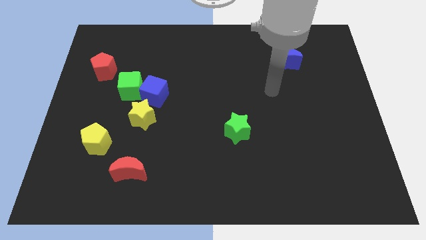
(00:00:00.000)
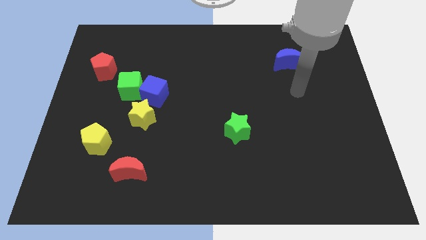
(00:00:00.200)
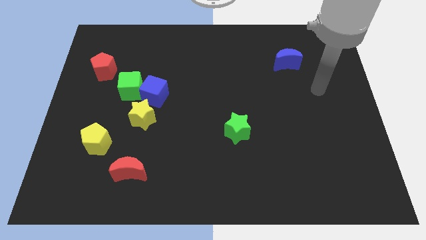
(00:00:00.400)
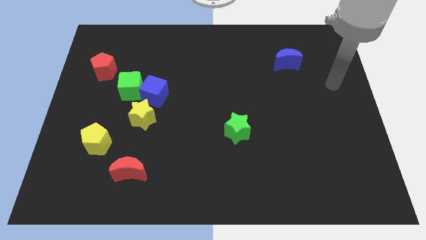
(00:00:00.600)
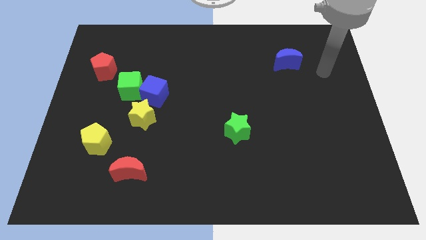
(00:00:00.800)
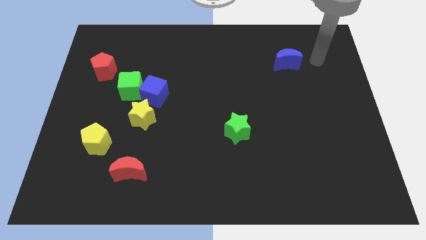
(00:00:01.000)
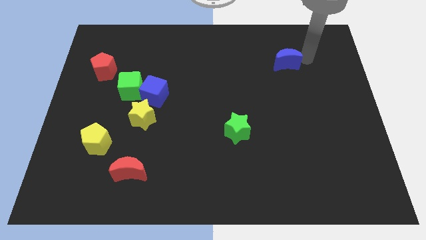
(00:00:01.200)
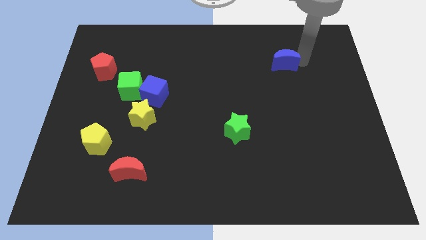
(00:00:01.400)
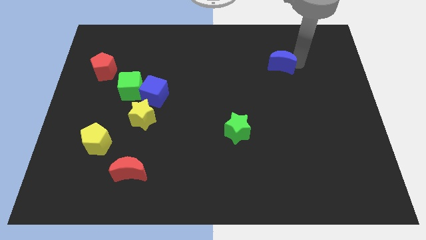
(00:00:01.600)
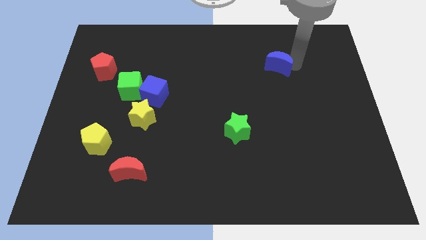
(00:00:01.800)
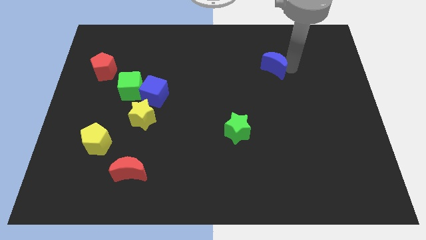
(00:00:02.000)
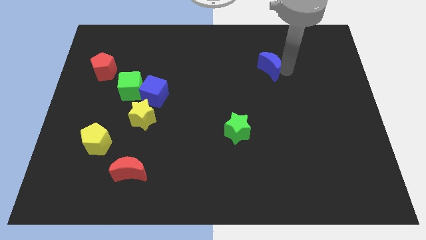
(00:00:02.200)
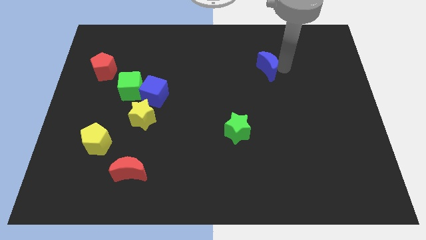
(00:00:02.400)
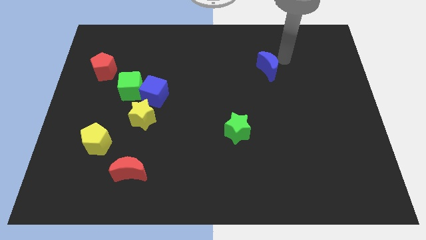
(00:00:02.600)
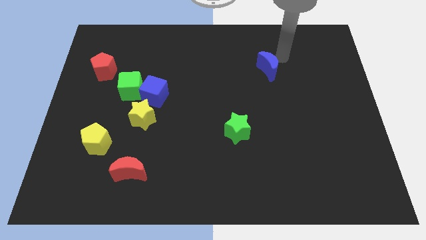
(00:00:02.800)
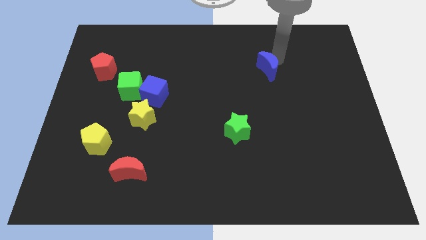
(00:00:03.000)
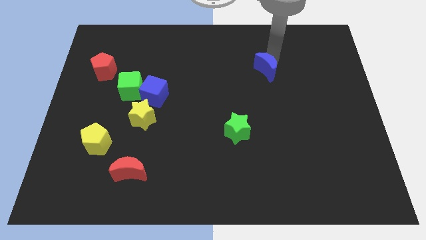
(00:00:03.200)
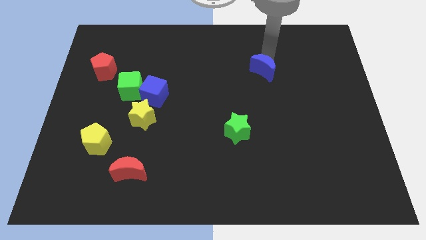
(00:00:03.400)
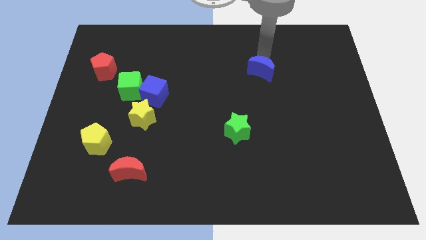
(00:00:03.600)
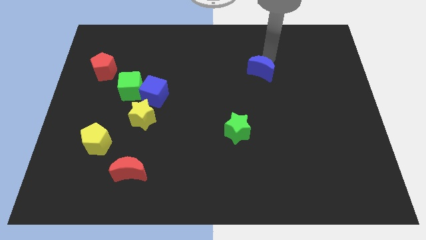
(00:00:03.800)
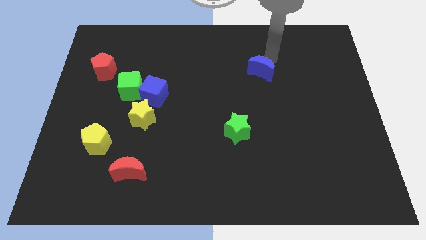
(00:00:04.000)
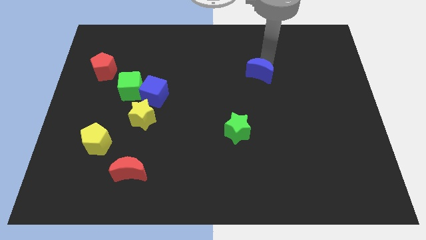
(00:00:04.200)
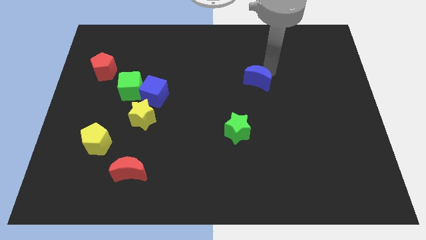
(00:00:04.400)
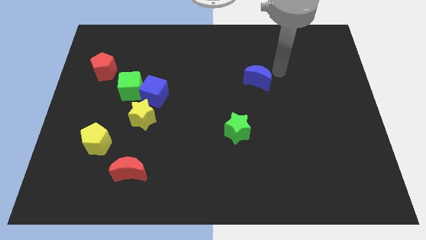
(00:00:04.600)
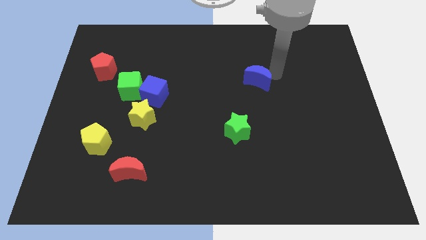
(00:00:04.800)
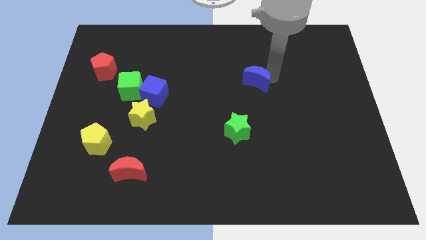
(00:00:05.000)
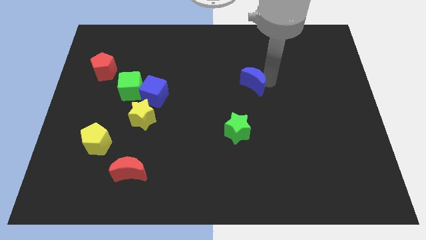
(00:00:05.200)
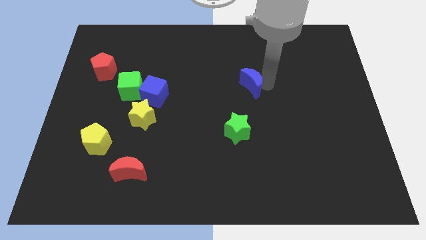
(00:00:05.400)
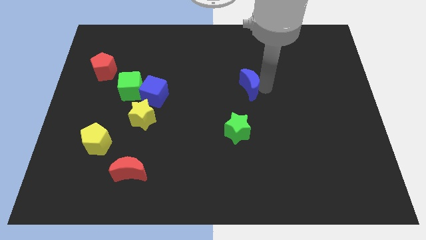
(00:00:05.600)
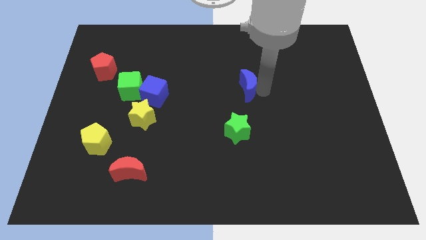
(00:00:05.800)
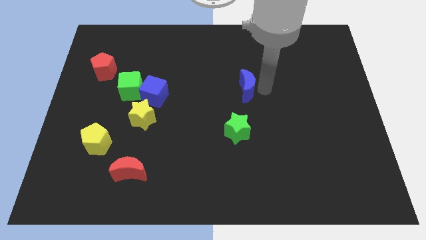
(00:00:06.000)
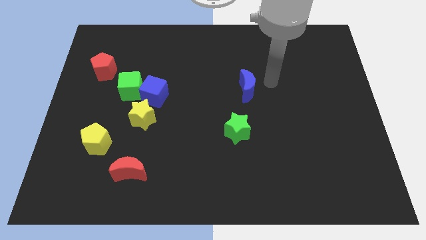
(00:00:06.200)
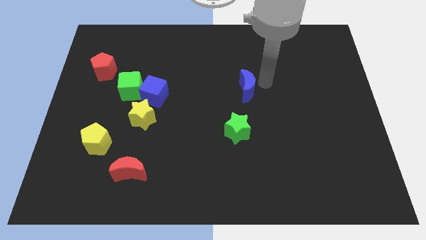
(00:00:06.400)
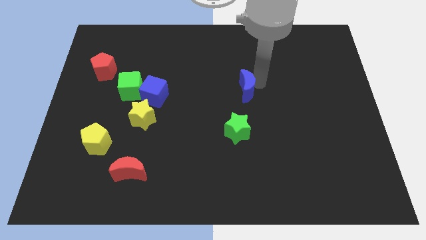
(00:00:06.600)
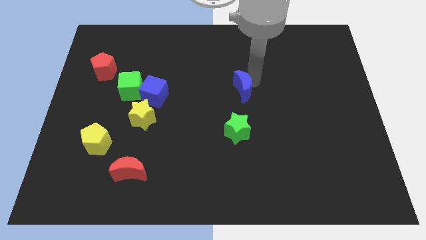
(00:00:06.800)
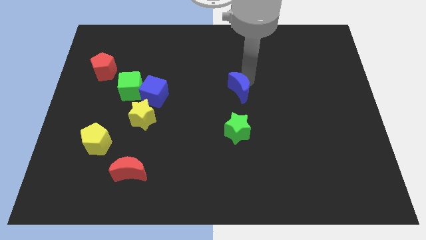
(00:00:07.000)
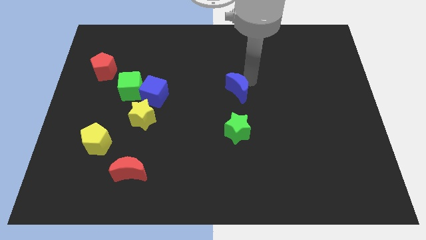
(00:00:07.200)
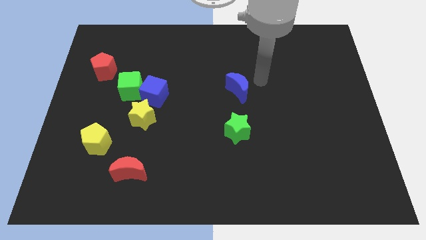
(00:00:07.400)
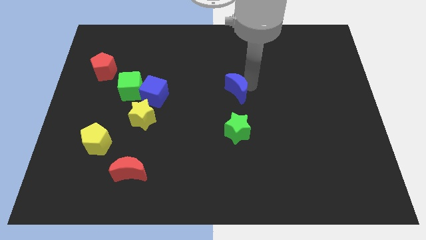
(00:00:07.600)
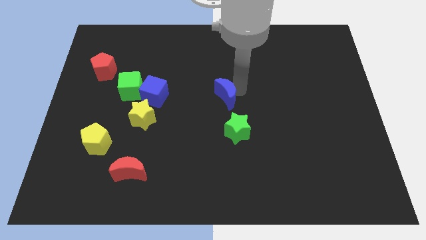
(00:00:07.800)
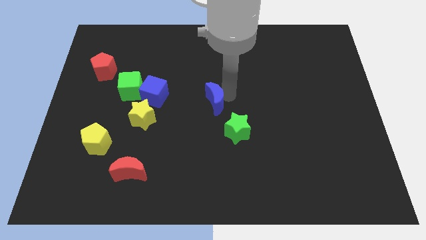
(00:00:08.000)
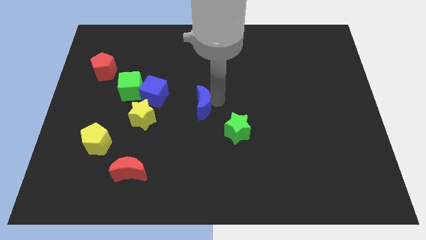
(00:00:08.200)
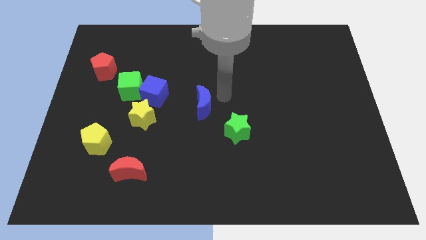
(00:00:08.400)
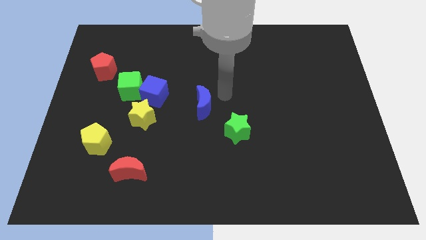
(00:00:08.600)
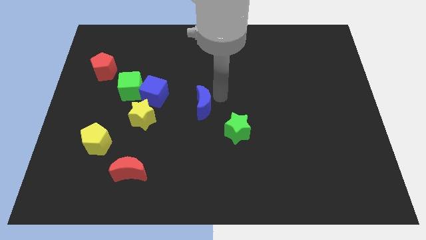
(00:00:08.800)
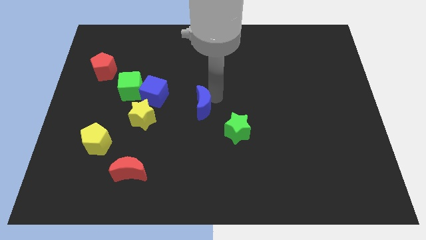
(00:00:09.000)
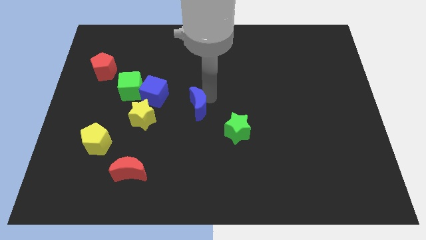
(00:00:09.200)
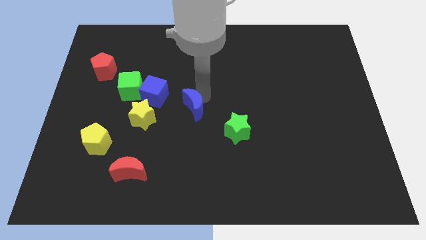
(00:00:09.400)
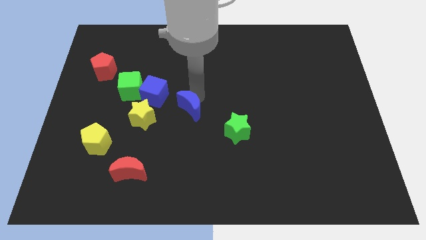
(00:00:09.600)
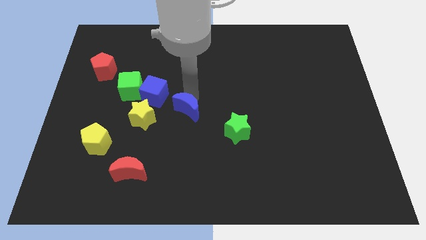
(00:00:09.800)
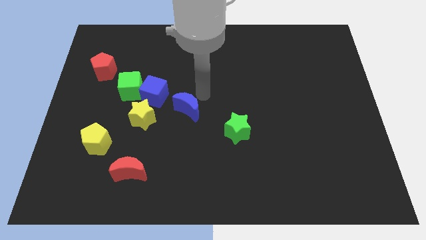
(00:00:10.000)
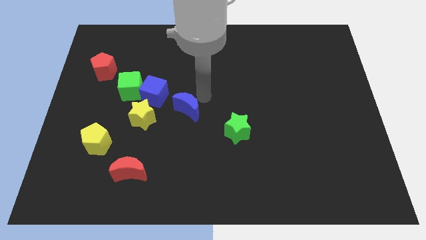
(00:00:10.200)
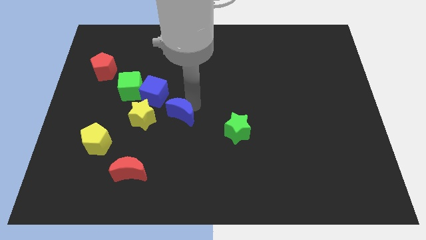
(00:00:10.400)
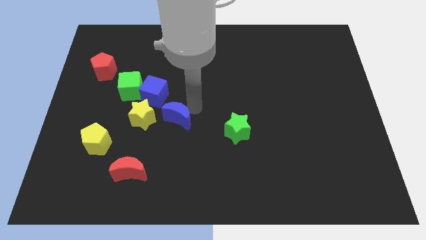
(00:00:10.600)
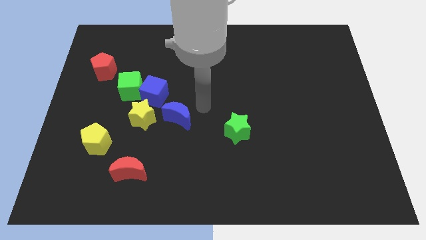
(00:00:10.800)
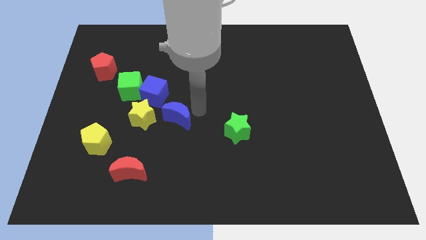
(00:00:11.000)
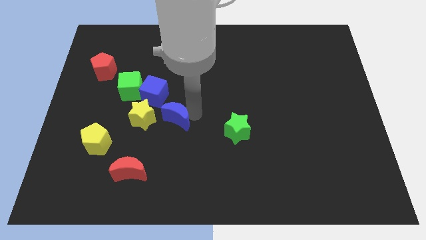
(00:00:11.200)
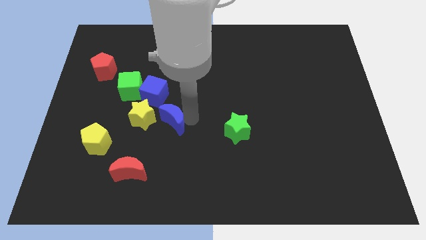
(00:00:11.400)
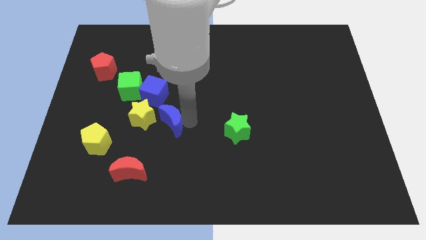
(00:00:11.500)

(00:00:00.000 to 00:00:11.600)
push the blue moon to the bottom of the blue cube

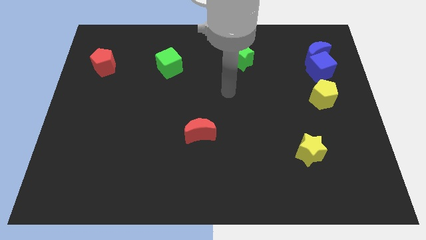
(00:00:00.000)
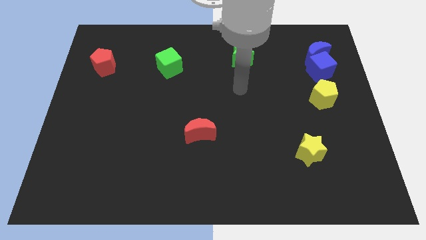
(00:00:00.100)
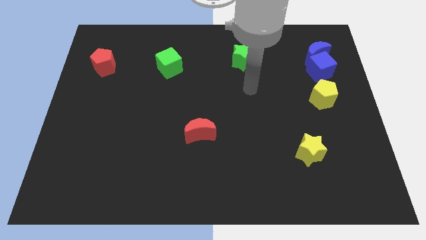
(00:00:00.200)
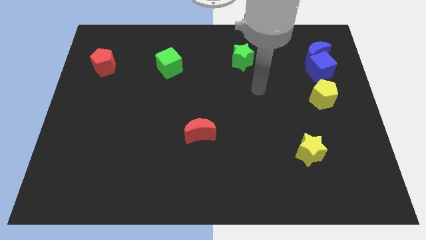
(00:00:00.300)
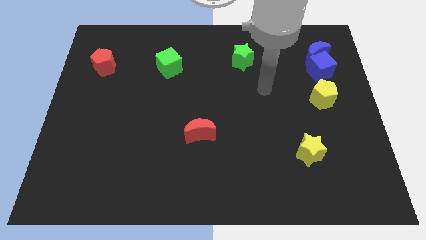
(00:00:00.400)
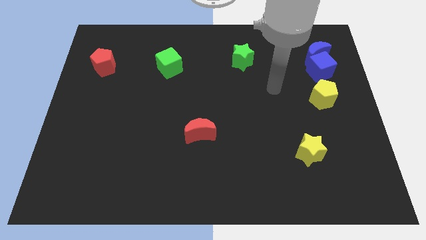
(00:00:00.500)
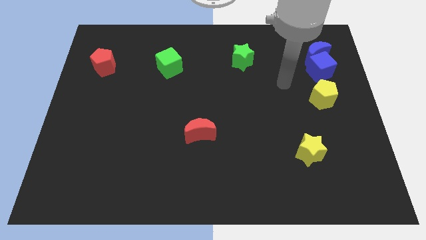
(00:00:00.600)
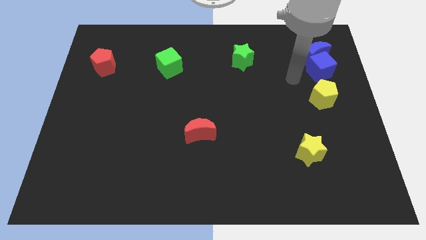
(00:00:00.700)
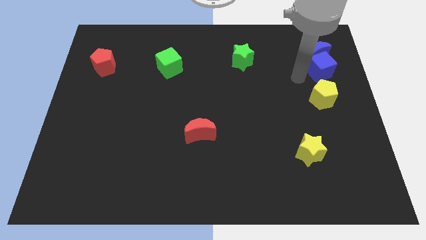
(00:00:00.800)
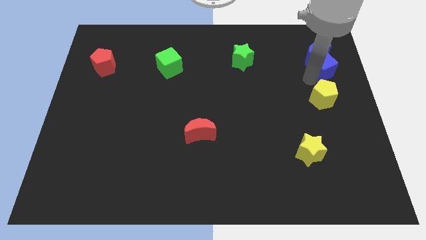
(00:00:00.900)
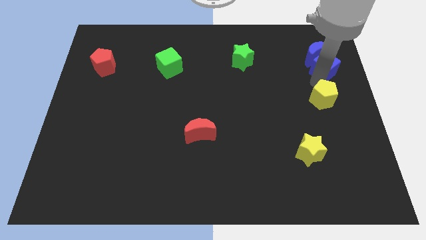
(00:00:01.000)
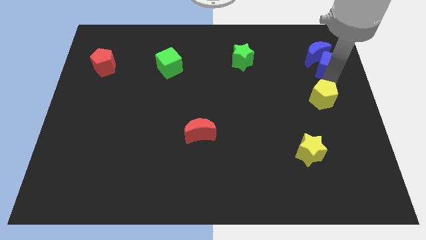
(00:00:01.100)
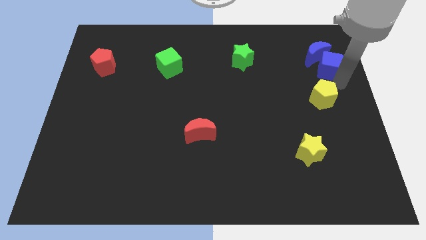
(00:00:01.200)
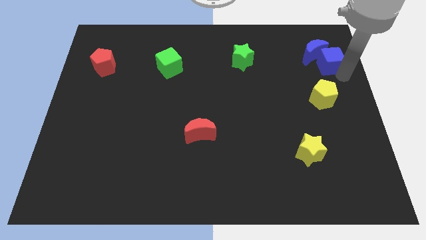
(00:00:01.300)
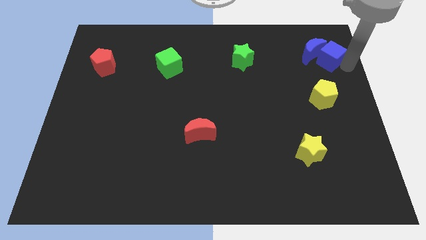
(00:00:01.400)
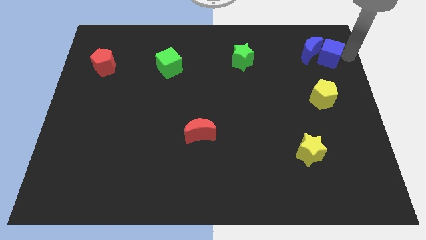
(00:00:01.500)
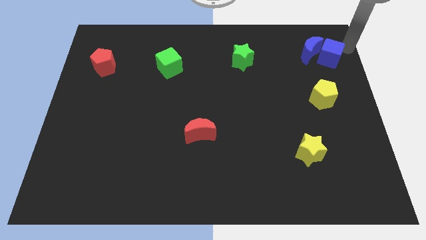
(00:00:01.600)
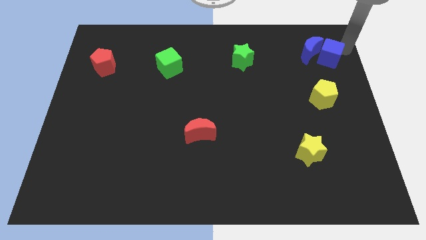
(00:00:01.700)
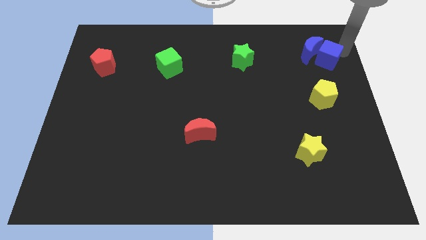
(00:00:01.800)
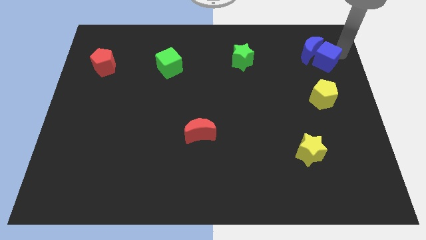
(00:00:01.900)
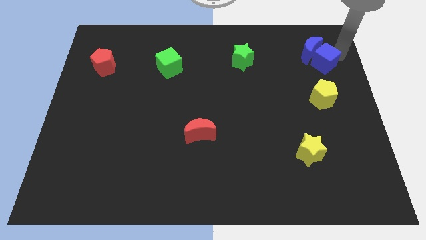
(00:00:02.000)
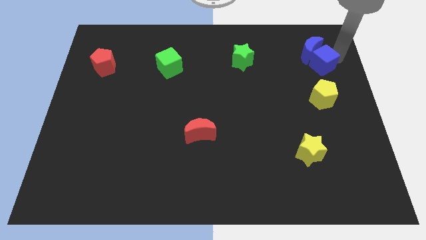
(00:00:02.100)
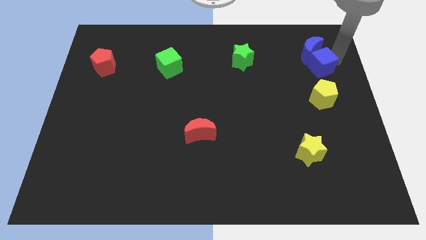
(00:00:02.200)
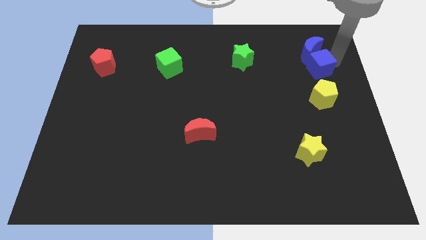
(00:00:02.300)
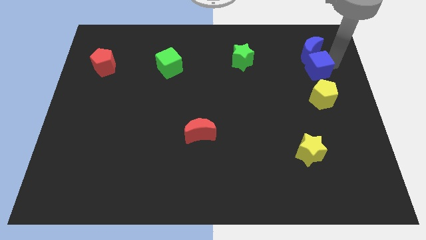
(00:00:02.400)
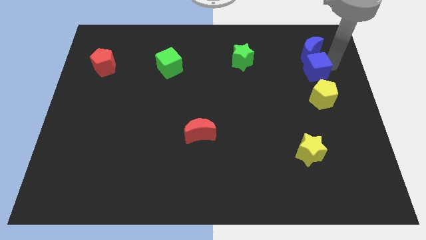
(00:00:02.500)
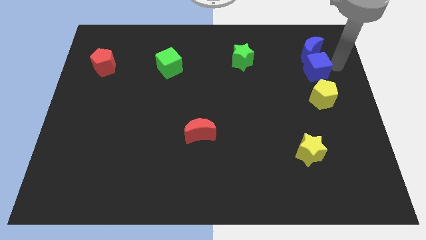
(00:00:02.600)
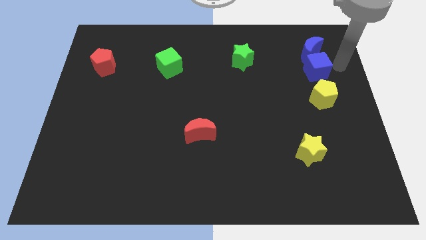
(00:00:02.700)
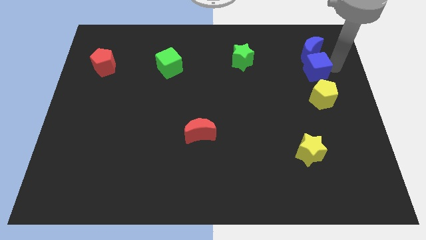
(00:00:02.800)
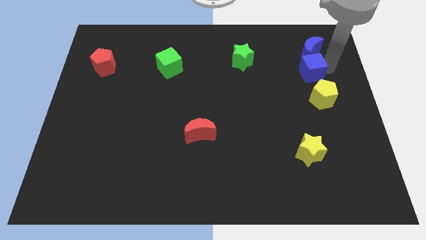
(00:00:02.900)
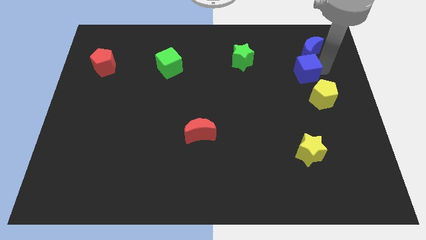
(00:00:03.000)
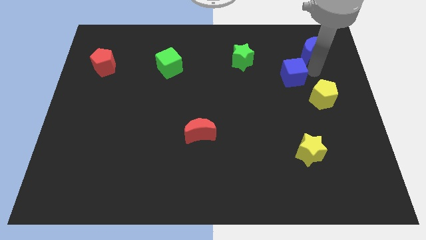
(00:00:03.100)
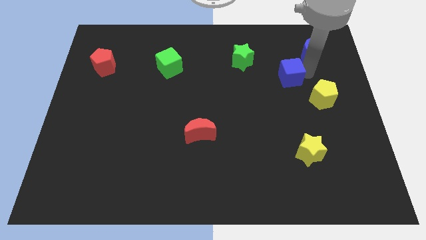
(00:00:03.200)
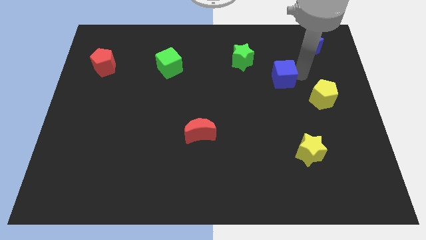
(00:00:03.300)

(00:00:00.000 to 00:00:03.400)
put the blue cube to the bottom right of the green star
